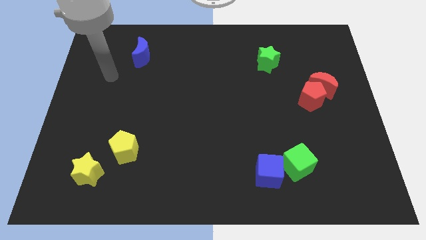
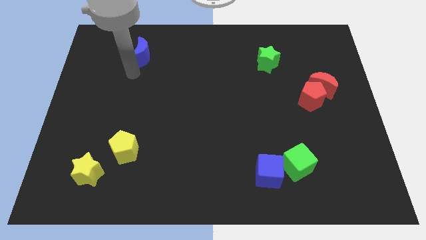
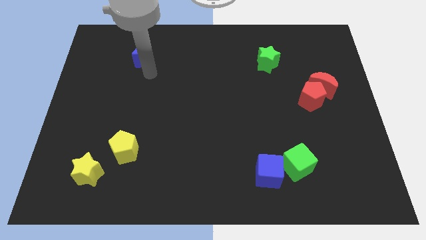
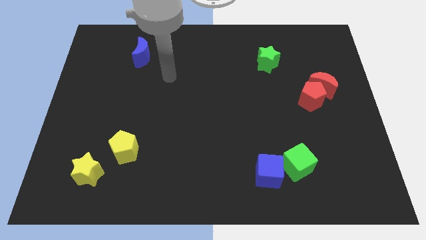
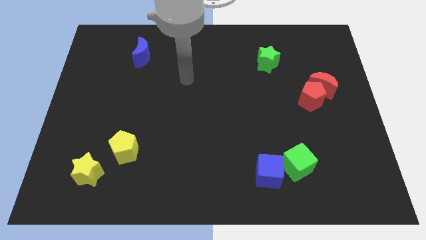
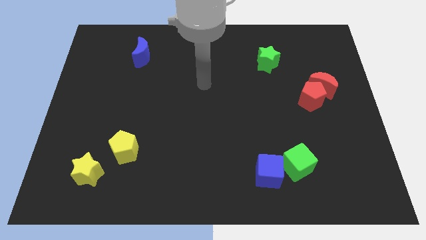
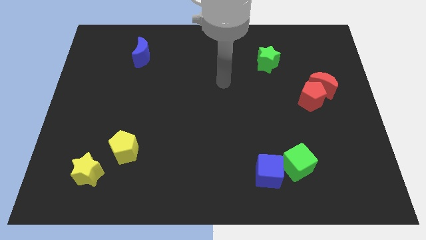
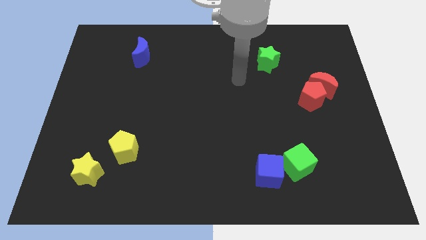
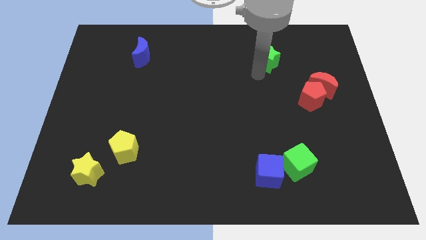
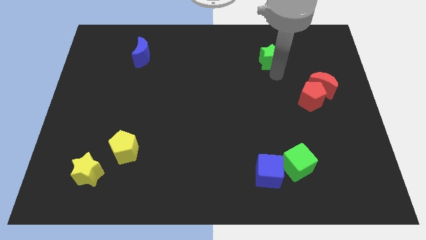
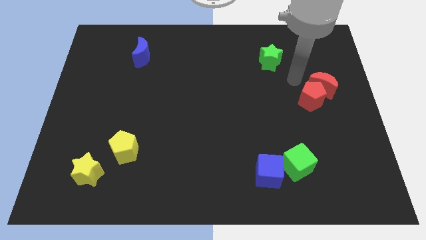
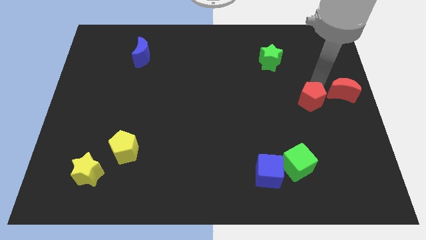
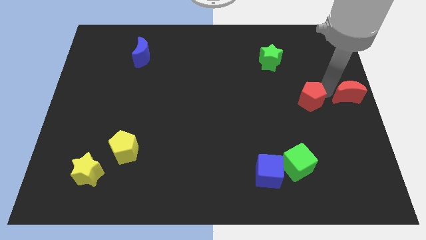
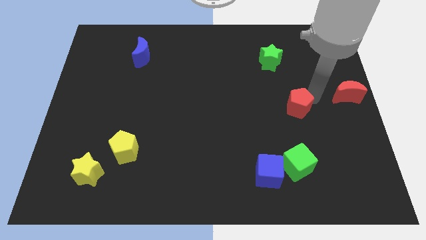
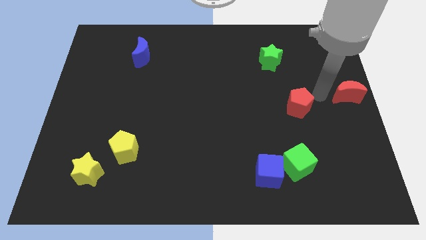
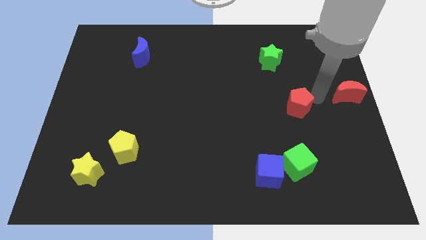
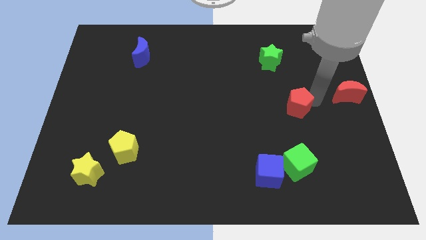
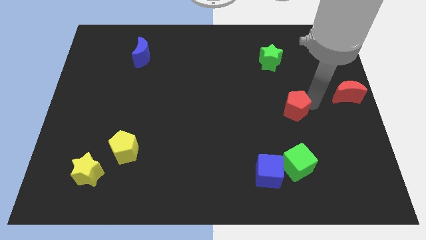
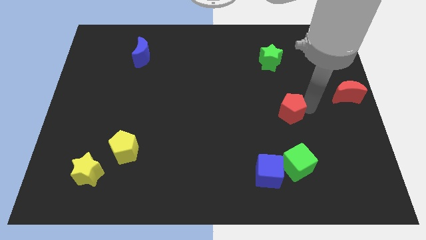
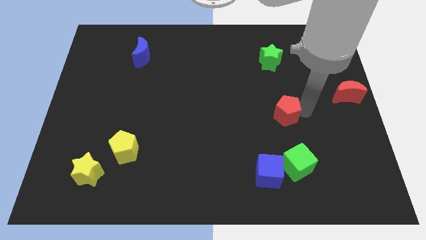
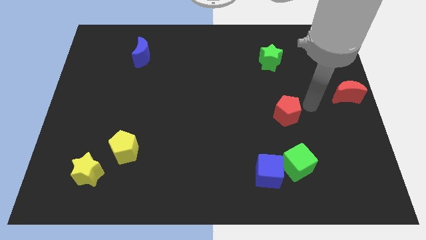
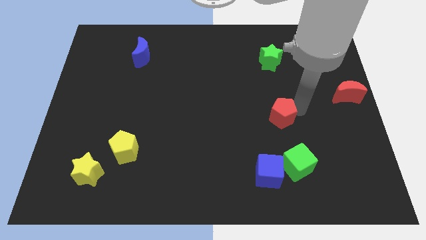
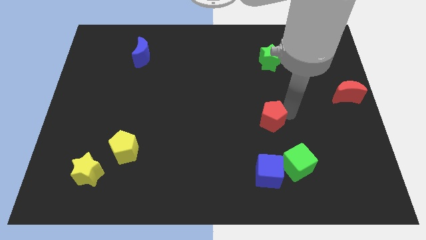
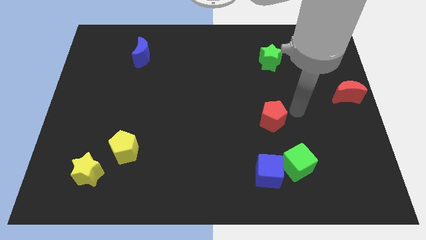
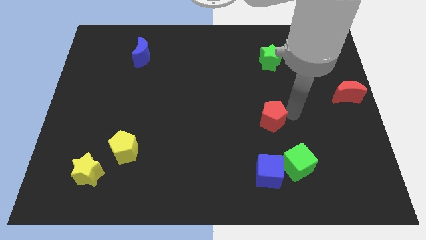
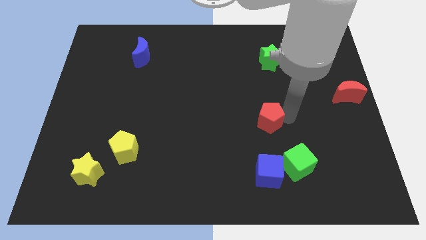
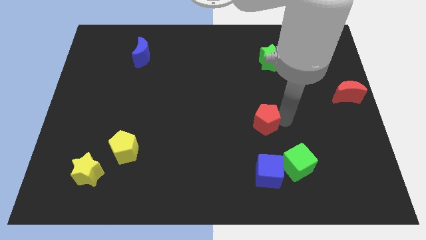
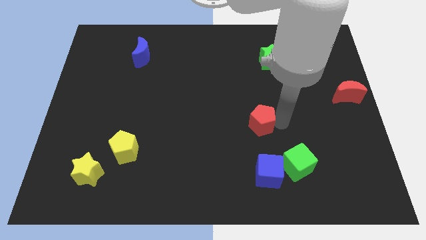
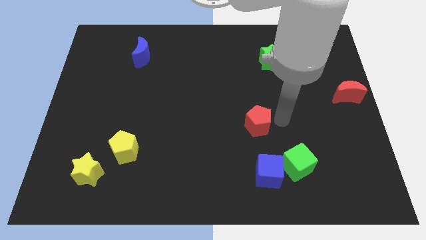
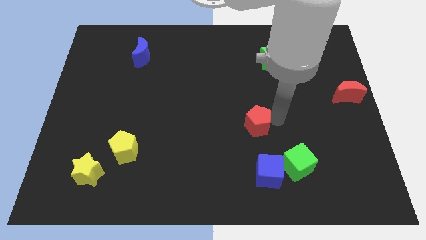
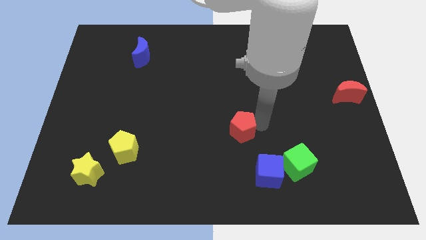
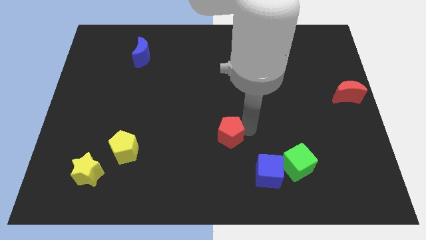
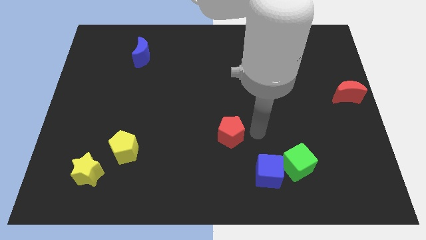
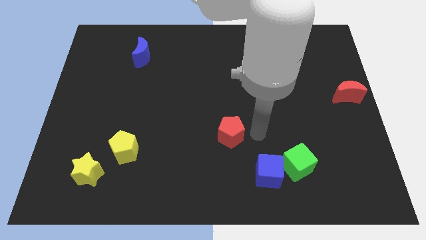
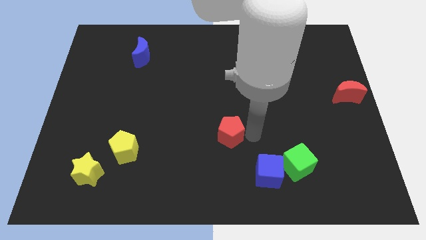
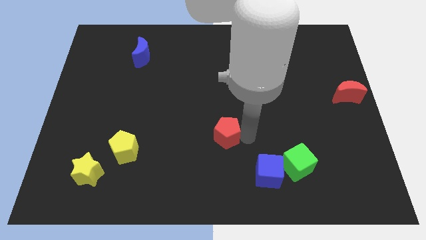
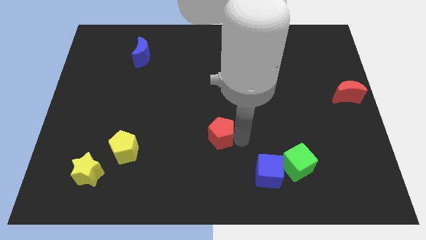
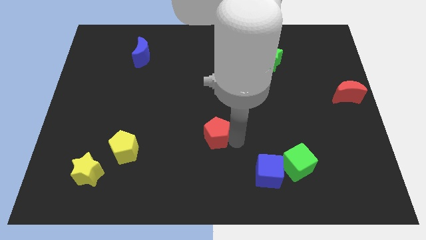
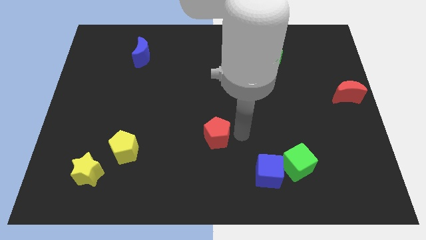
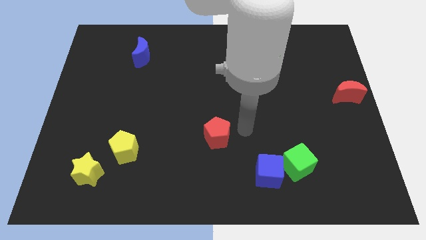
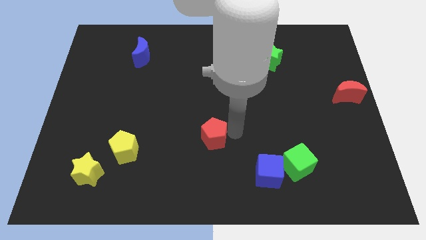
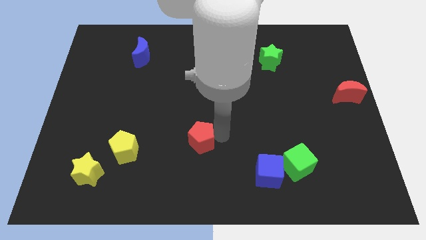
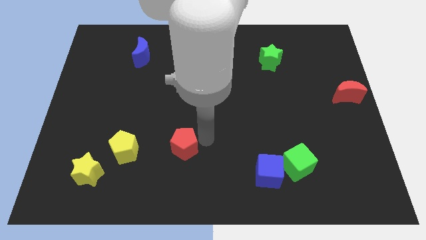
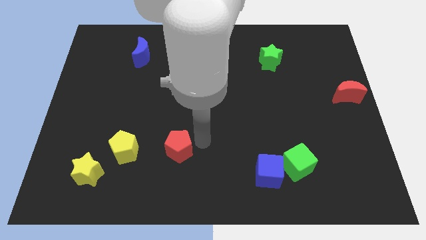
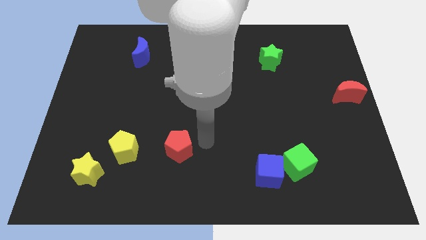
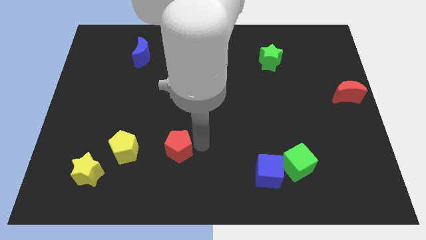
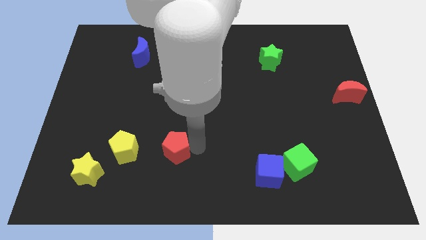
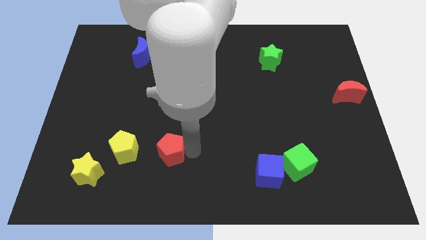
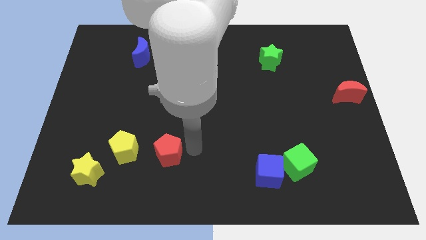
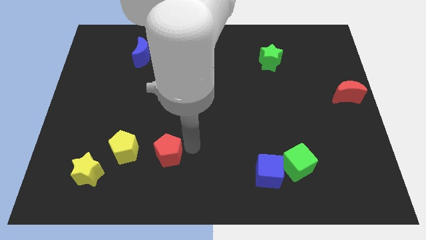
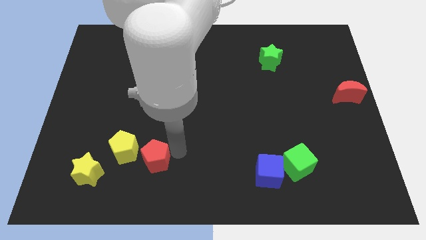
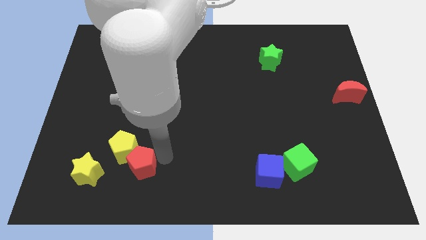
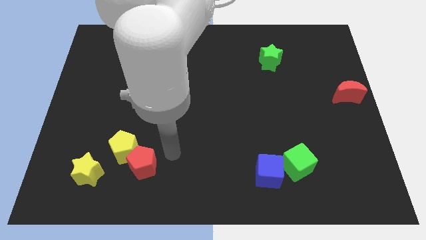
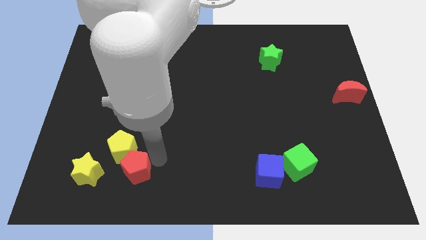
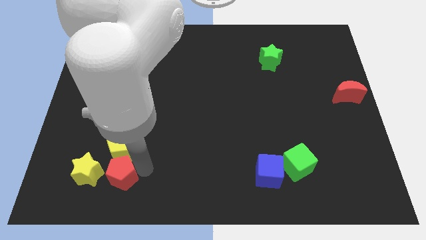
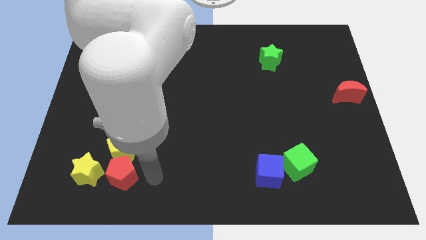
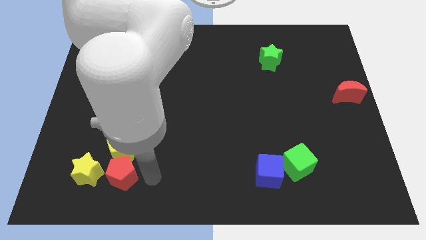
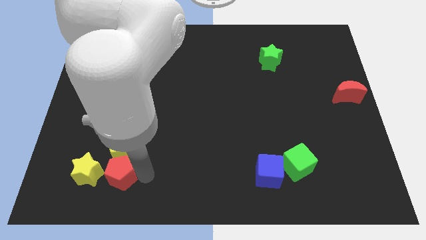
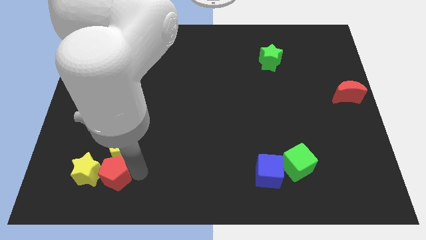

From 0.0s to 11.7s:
move the red pentagon towards the yellow star
